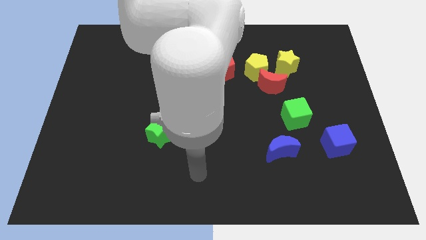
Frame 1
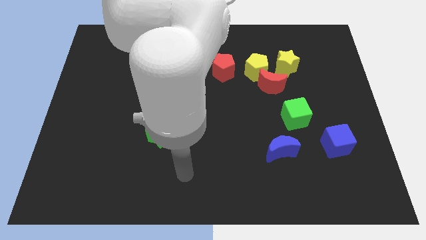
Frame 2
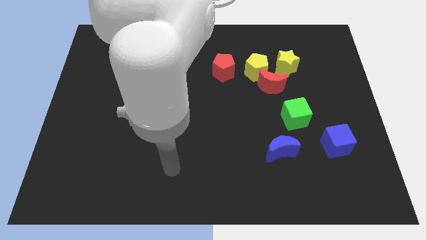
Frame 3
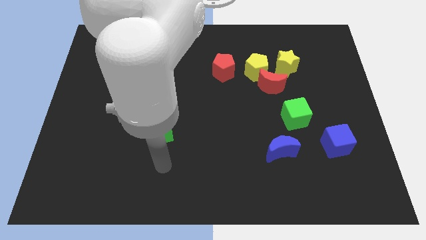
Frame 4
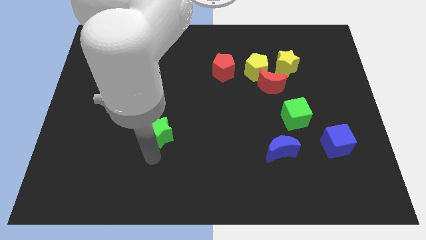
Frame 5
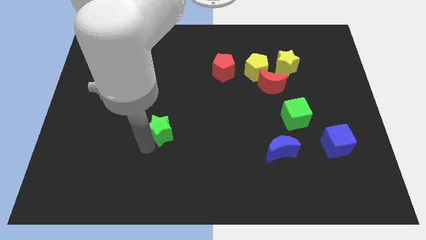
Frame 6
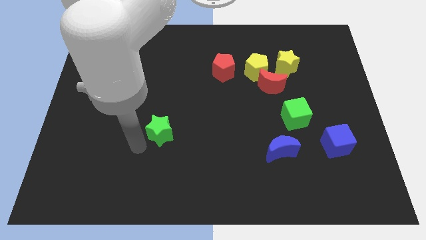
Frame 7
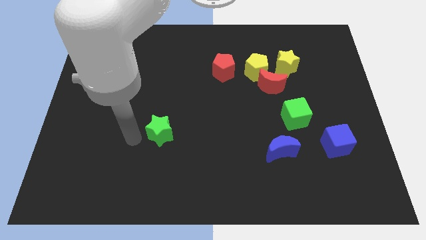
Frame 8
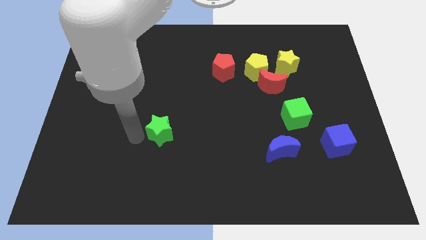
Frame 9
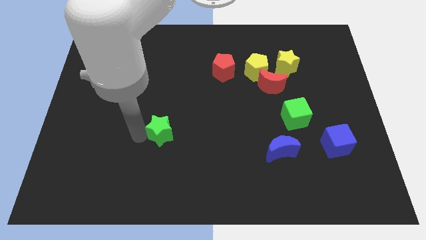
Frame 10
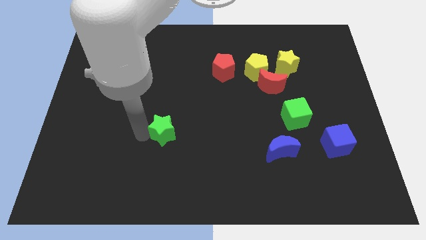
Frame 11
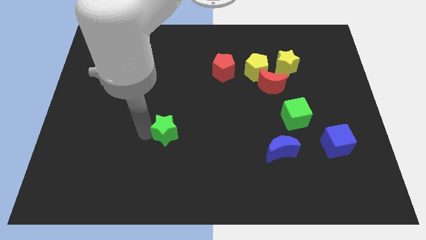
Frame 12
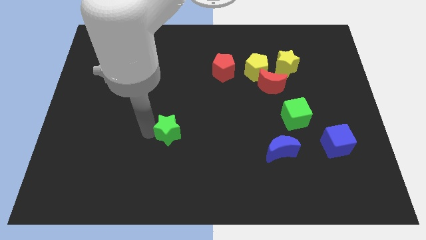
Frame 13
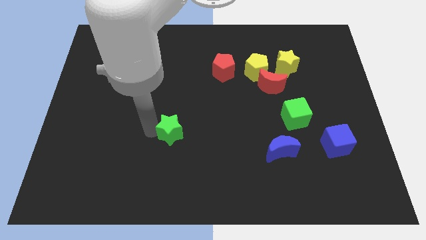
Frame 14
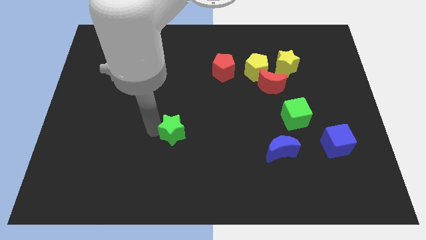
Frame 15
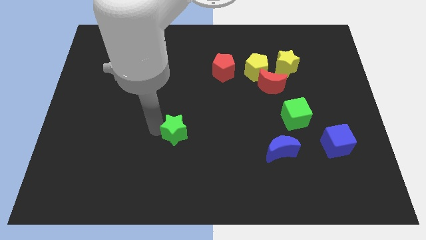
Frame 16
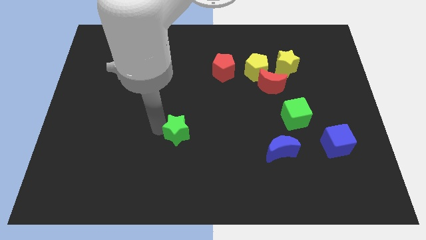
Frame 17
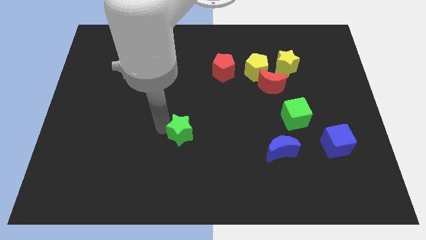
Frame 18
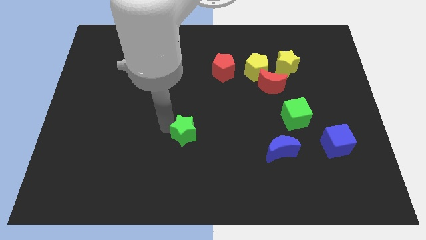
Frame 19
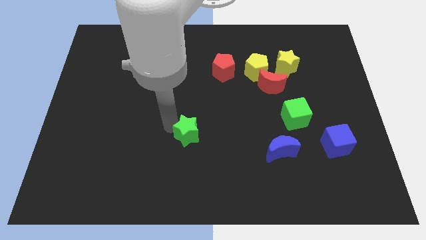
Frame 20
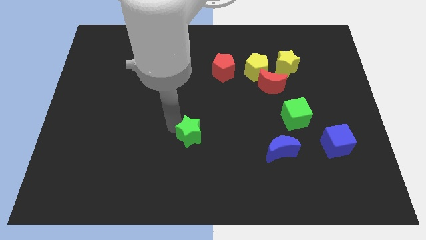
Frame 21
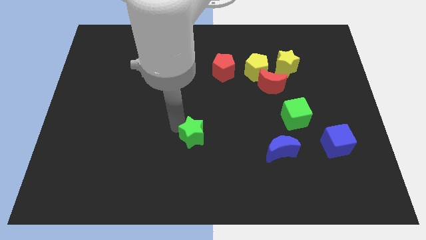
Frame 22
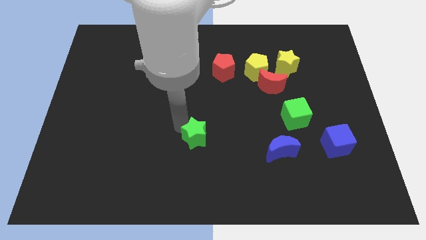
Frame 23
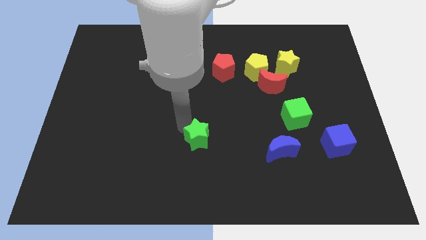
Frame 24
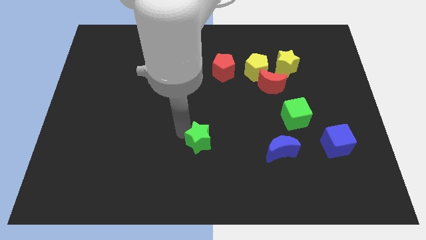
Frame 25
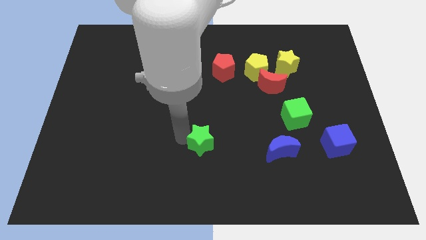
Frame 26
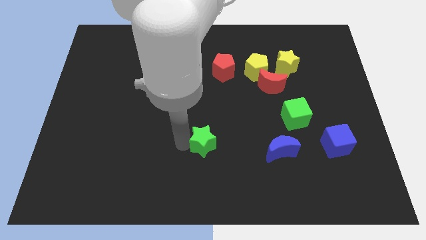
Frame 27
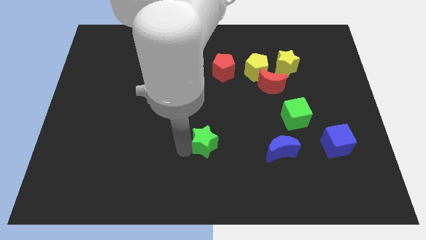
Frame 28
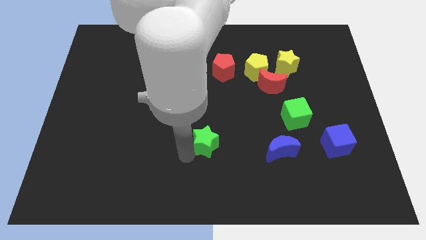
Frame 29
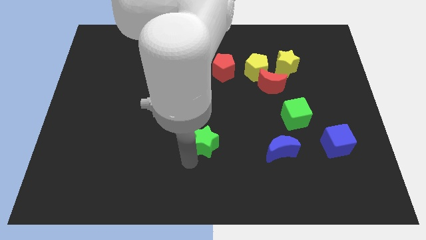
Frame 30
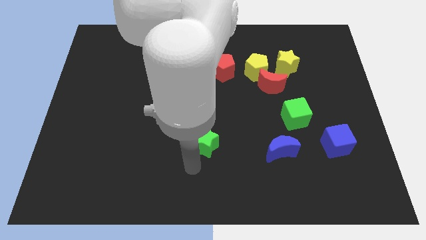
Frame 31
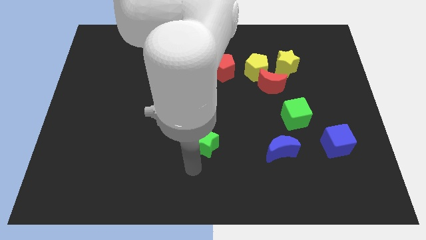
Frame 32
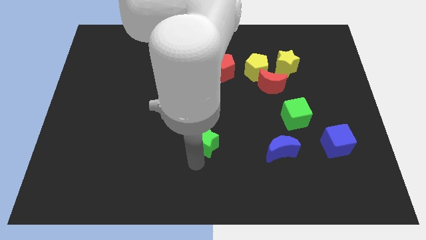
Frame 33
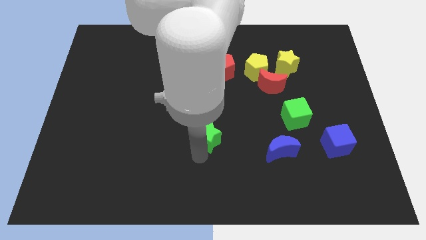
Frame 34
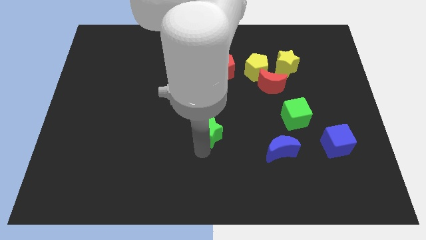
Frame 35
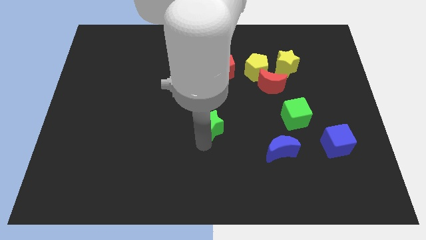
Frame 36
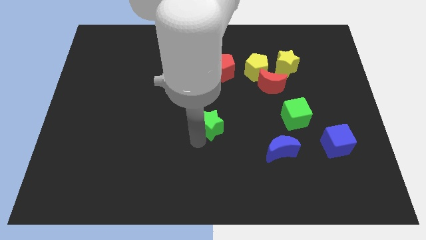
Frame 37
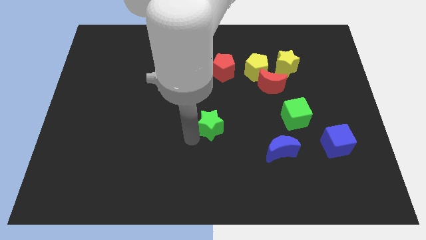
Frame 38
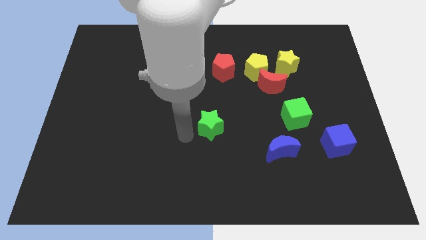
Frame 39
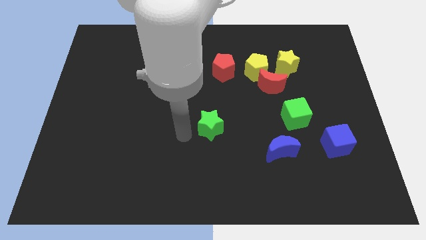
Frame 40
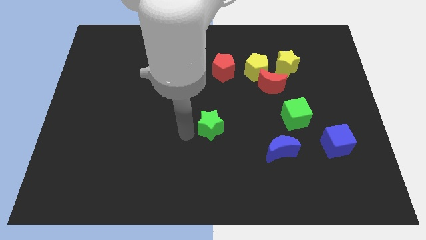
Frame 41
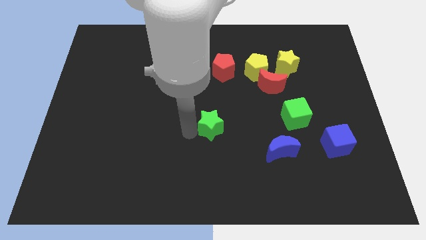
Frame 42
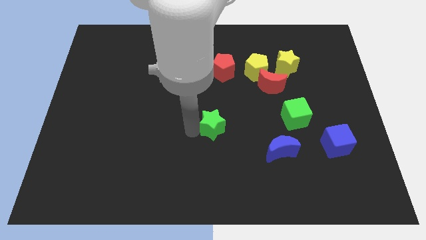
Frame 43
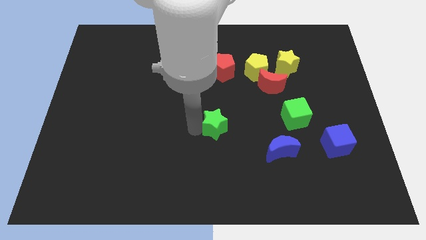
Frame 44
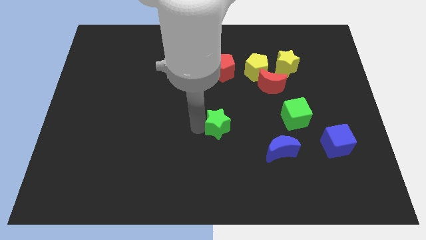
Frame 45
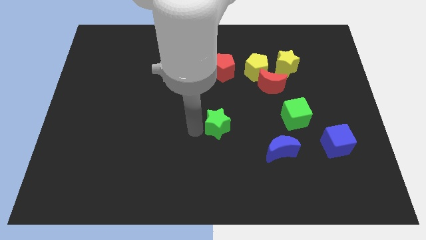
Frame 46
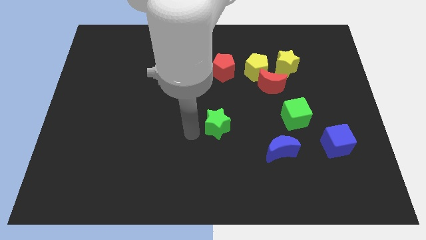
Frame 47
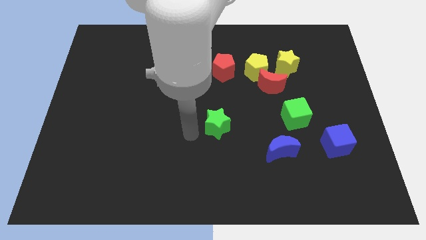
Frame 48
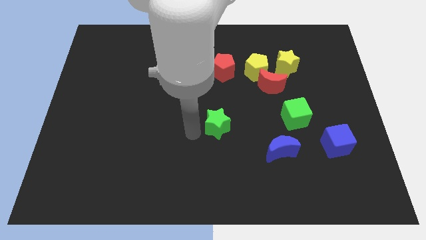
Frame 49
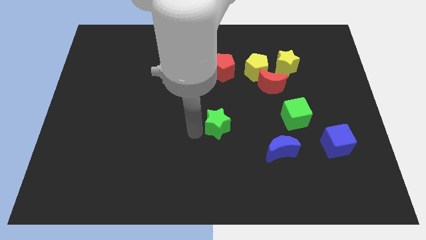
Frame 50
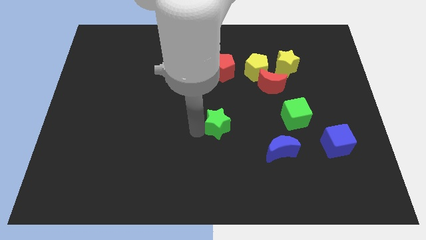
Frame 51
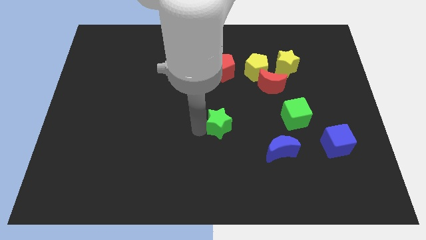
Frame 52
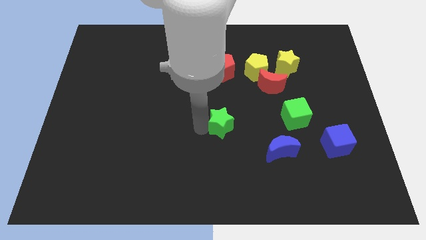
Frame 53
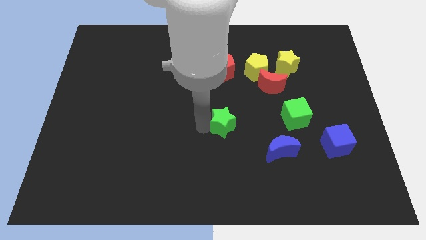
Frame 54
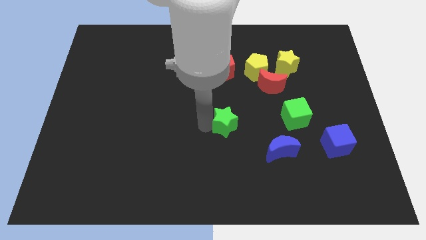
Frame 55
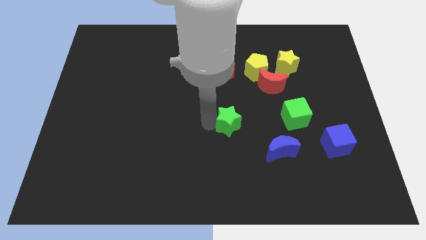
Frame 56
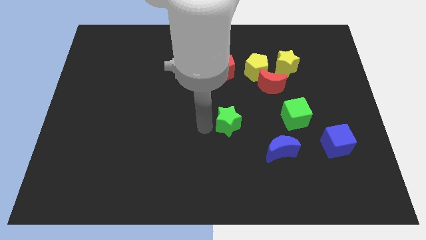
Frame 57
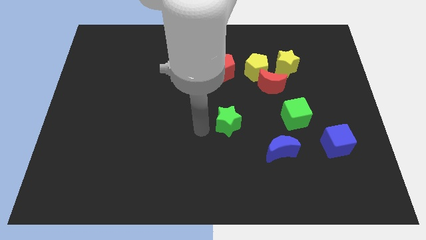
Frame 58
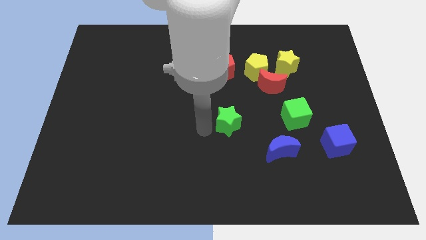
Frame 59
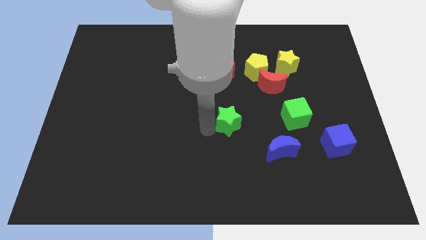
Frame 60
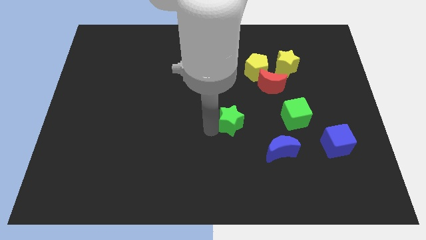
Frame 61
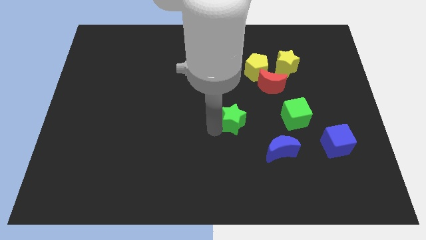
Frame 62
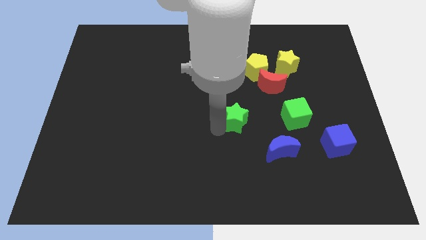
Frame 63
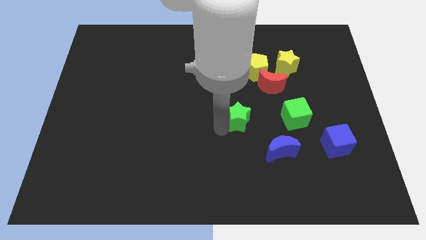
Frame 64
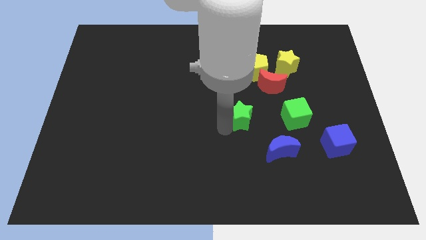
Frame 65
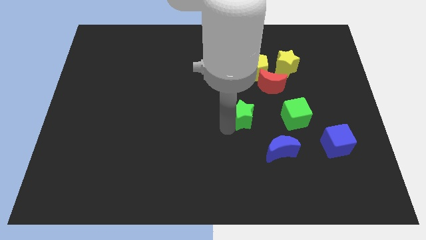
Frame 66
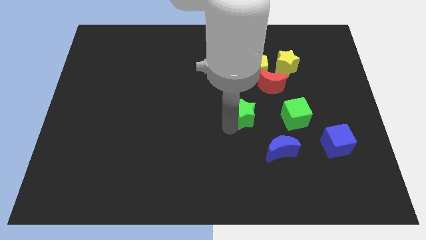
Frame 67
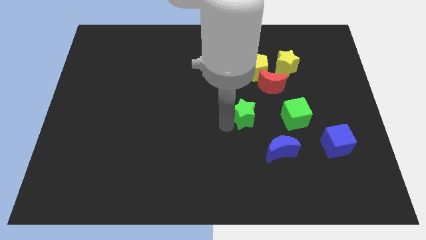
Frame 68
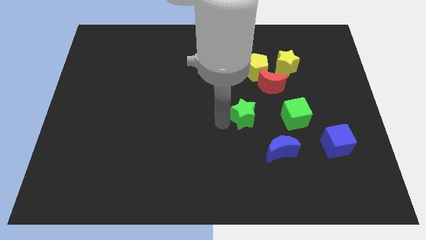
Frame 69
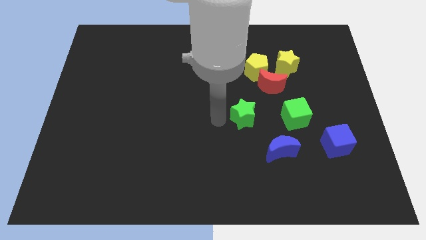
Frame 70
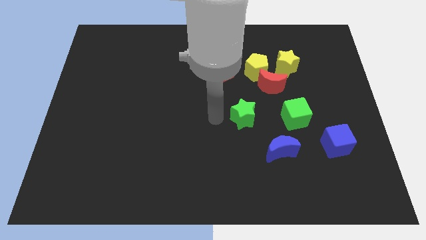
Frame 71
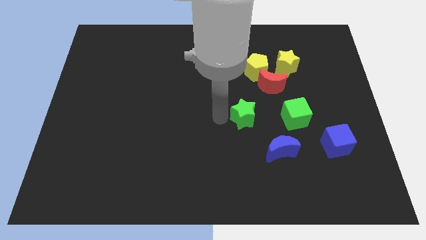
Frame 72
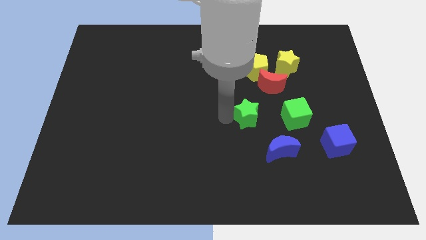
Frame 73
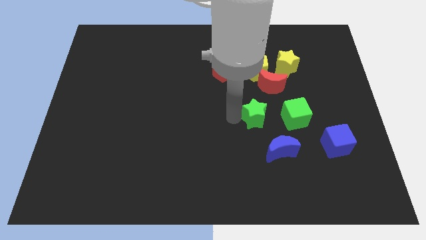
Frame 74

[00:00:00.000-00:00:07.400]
move the green star above the blue moon
